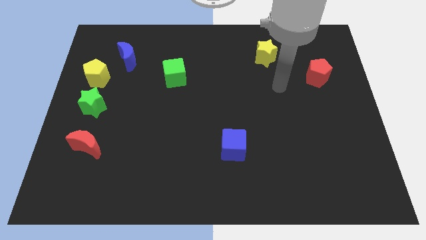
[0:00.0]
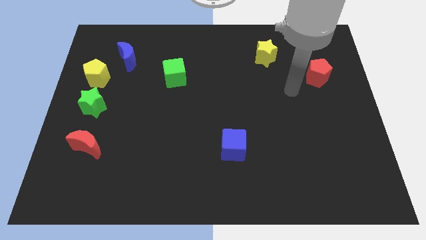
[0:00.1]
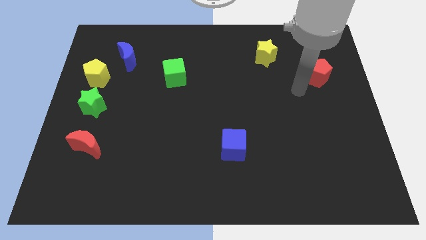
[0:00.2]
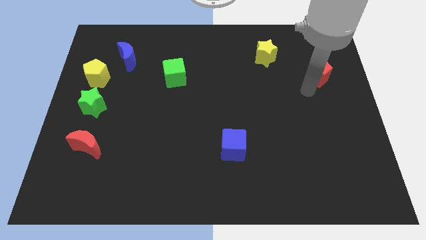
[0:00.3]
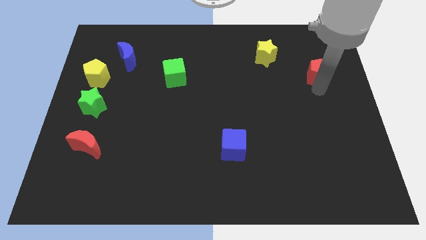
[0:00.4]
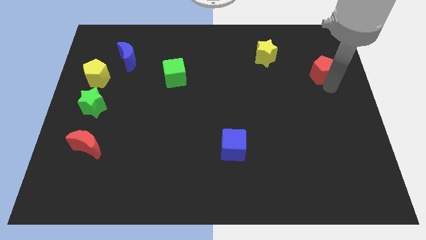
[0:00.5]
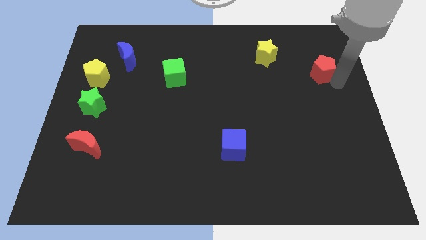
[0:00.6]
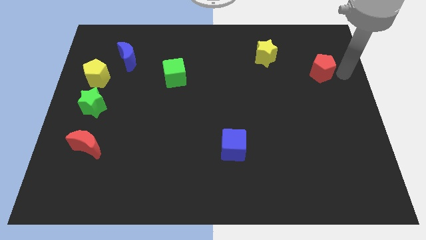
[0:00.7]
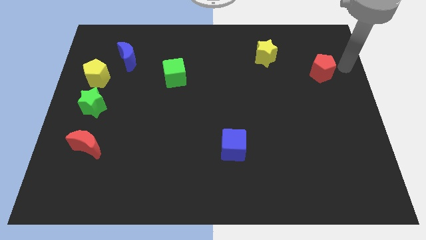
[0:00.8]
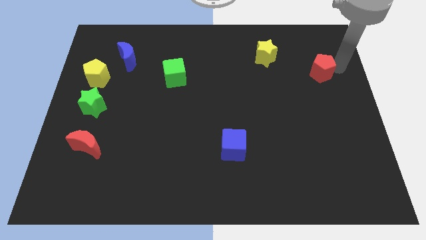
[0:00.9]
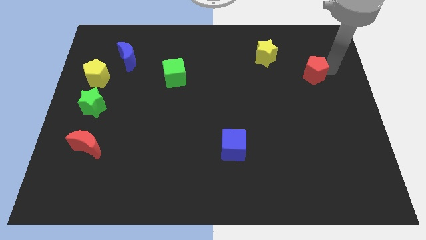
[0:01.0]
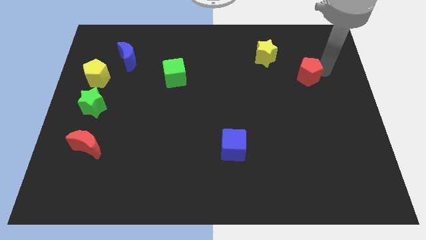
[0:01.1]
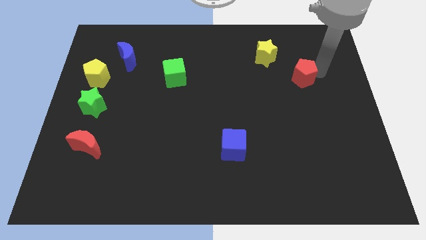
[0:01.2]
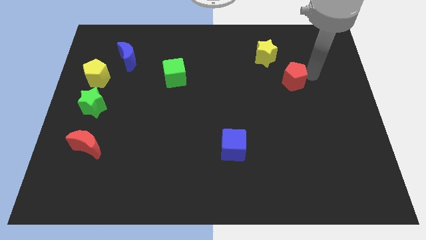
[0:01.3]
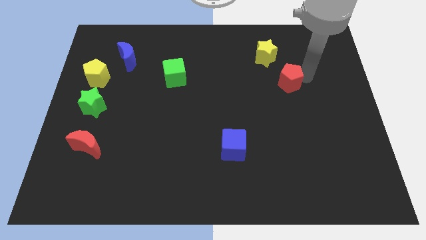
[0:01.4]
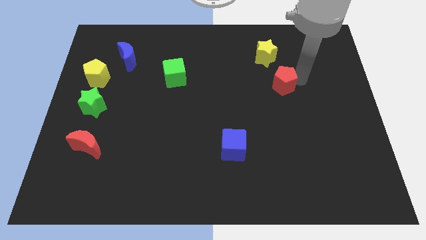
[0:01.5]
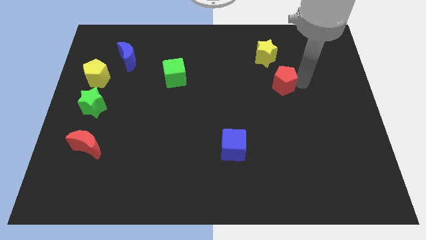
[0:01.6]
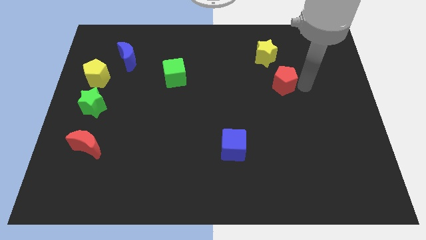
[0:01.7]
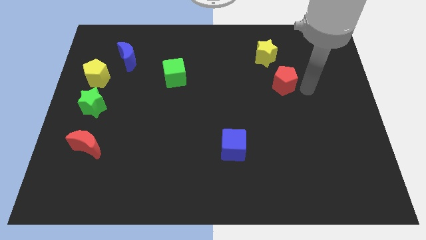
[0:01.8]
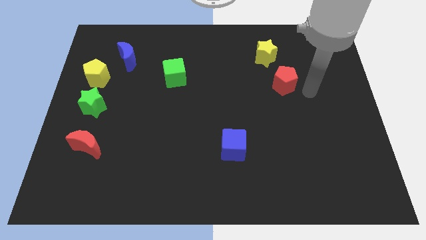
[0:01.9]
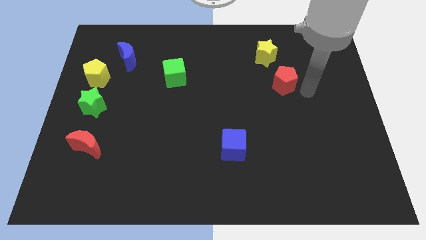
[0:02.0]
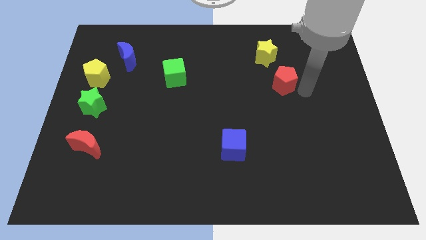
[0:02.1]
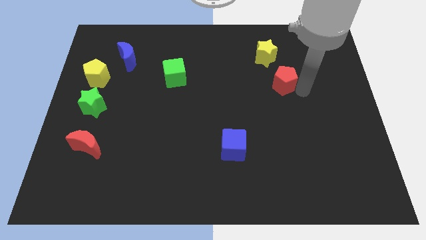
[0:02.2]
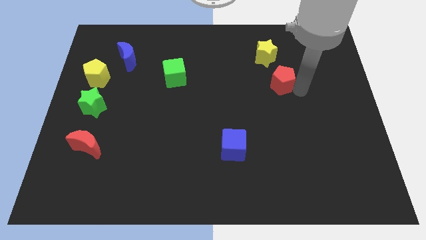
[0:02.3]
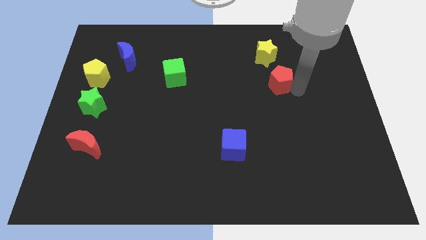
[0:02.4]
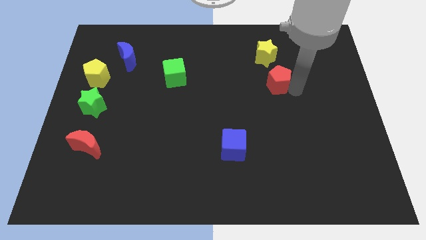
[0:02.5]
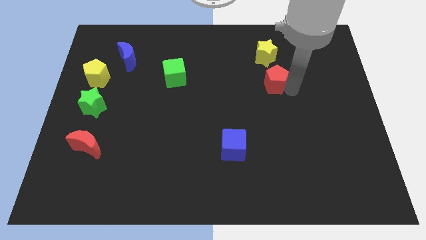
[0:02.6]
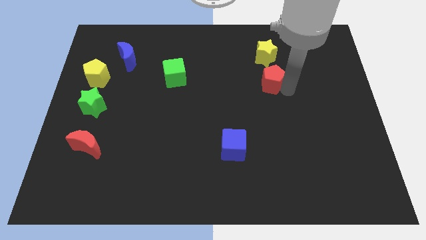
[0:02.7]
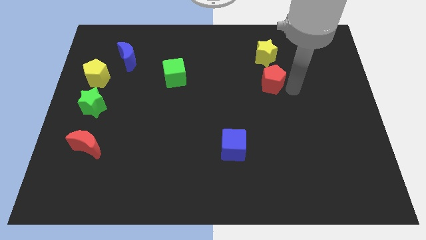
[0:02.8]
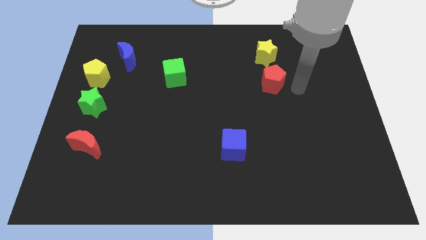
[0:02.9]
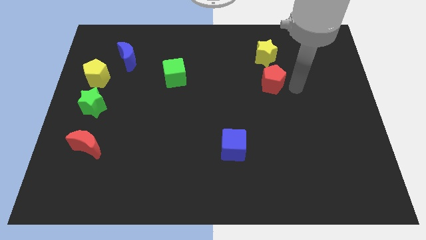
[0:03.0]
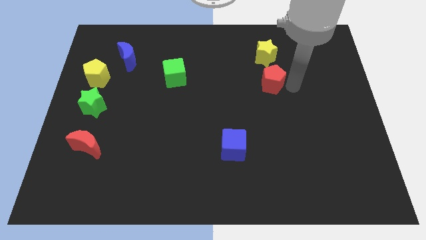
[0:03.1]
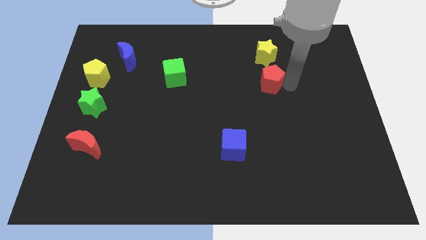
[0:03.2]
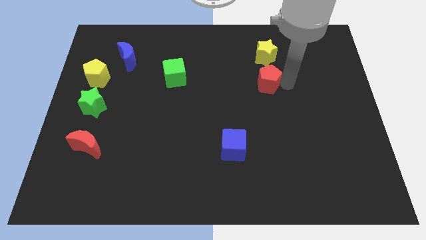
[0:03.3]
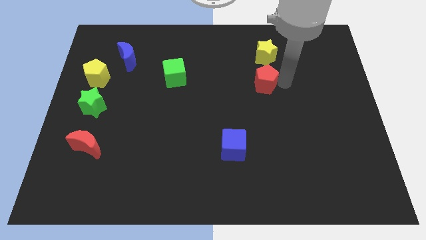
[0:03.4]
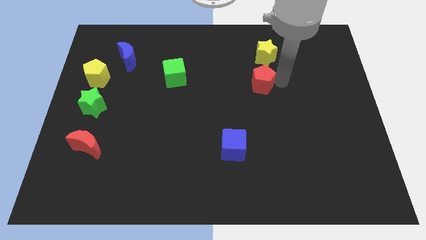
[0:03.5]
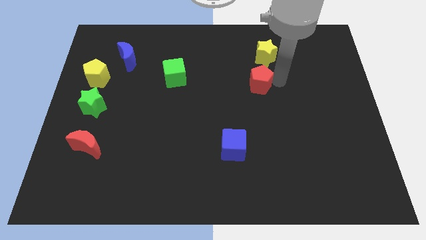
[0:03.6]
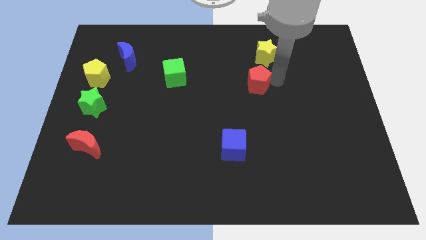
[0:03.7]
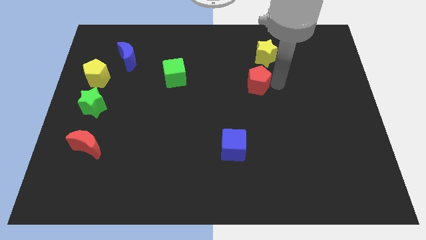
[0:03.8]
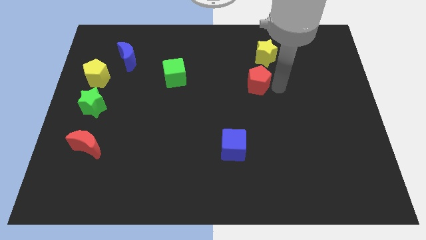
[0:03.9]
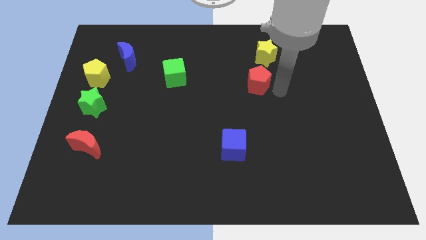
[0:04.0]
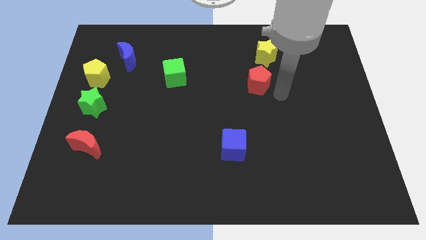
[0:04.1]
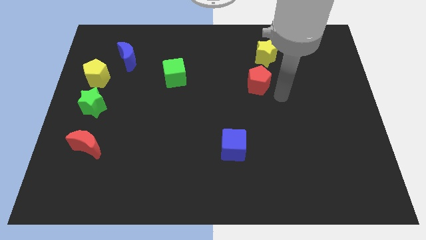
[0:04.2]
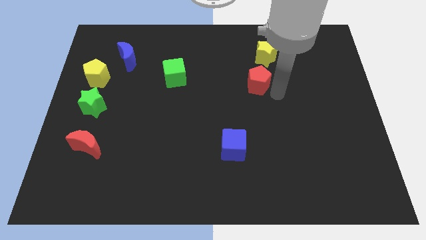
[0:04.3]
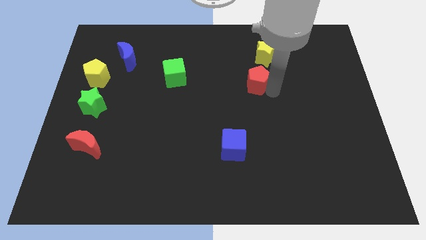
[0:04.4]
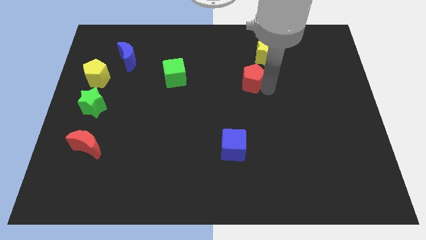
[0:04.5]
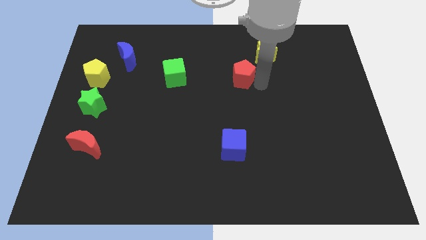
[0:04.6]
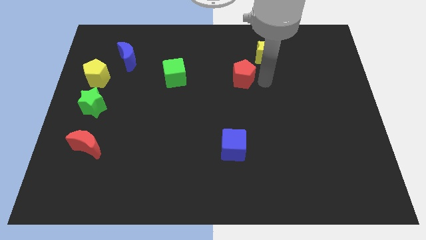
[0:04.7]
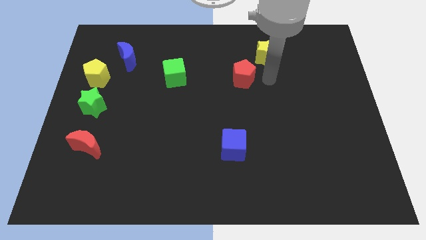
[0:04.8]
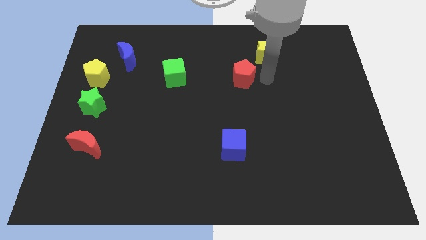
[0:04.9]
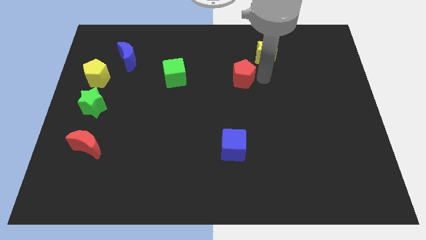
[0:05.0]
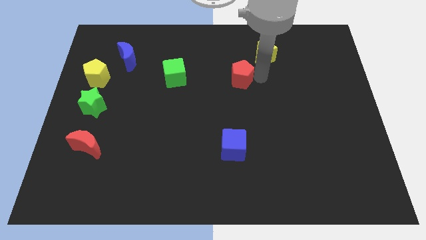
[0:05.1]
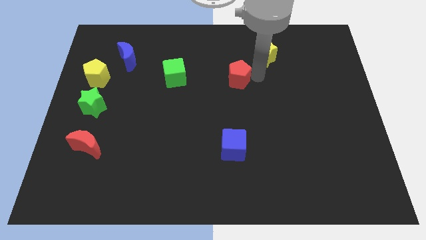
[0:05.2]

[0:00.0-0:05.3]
move the red pentagon right of the green cube

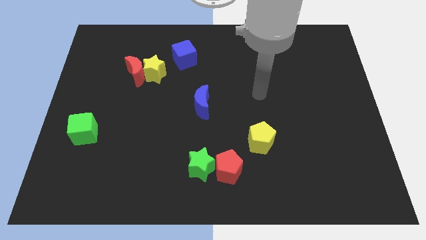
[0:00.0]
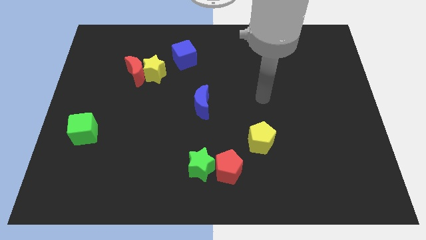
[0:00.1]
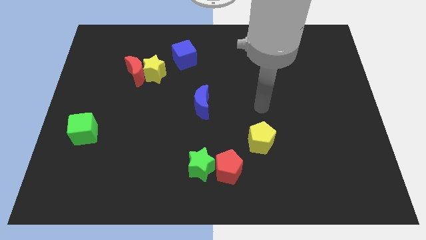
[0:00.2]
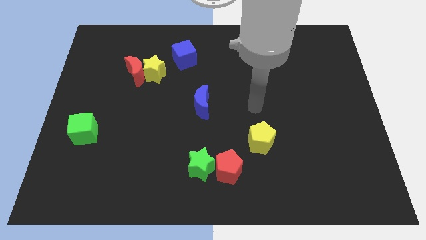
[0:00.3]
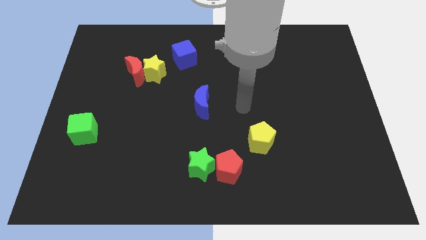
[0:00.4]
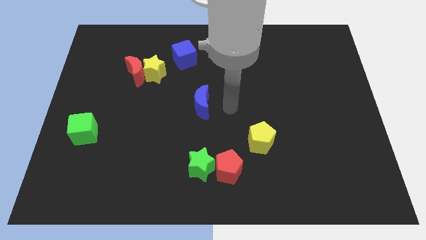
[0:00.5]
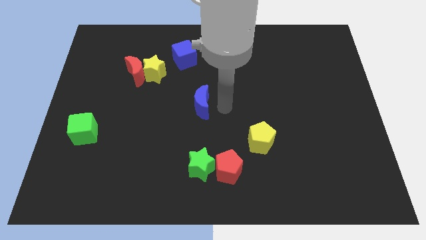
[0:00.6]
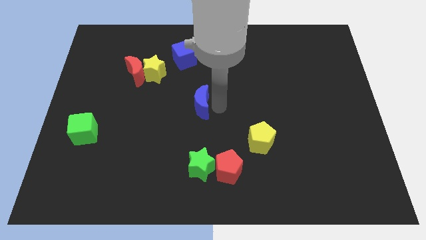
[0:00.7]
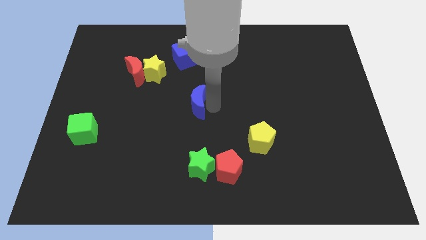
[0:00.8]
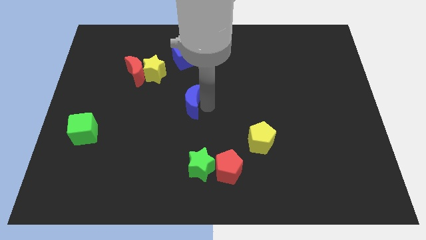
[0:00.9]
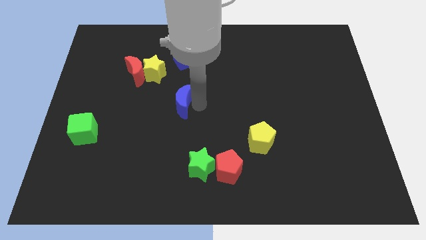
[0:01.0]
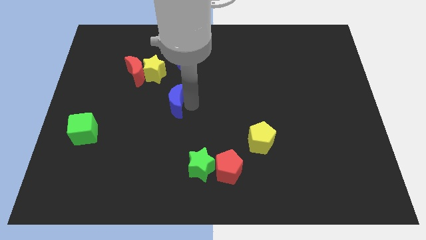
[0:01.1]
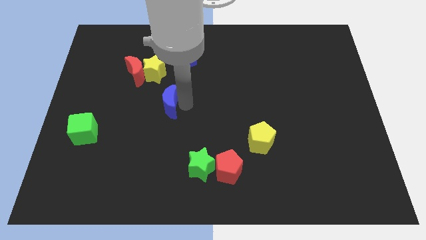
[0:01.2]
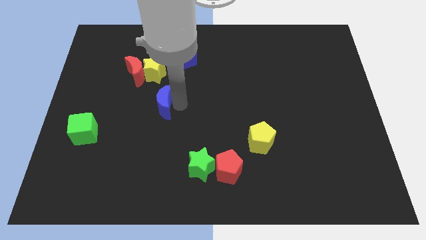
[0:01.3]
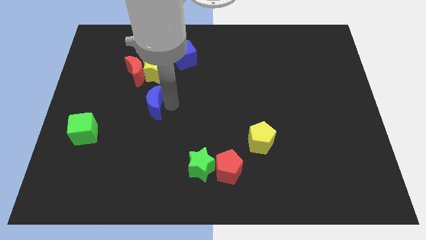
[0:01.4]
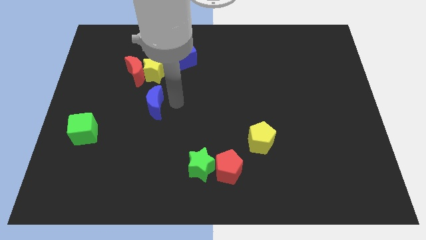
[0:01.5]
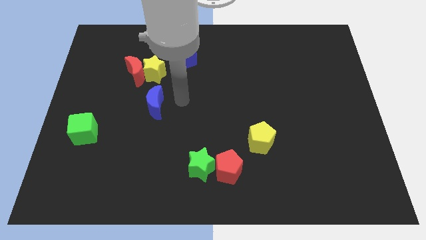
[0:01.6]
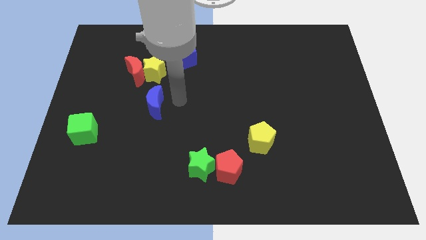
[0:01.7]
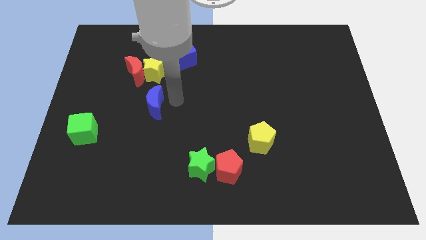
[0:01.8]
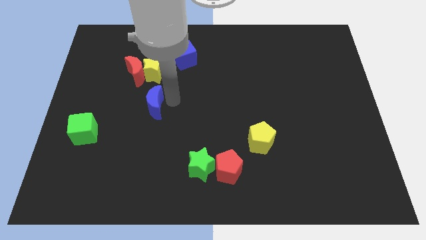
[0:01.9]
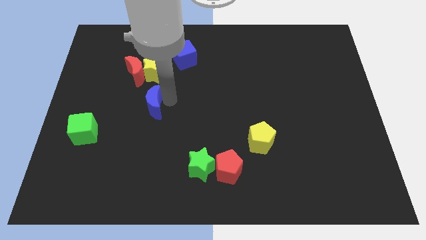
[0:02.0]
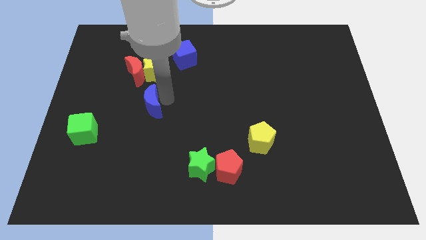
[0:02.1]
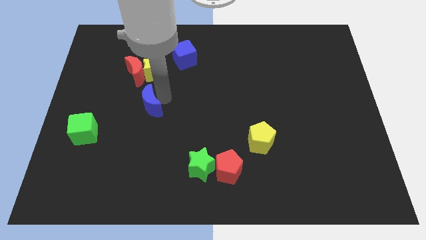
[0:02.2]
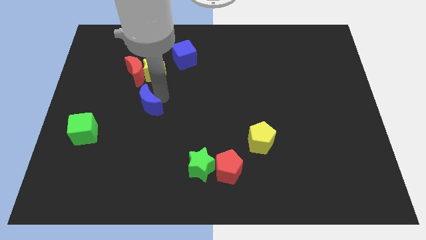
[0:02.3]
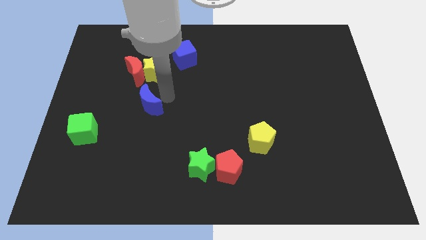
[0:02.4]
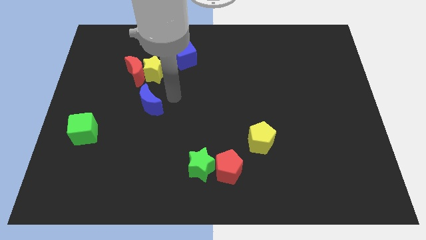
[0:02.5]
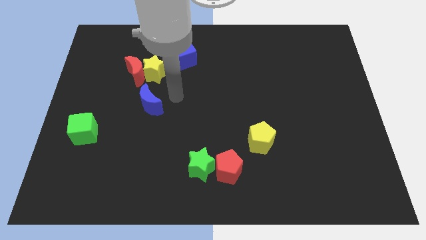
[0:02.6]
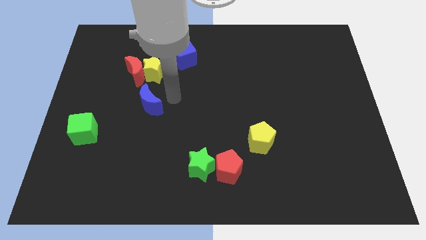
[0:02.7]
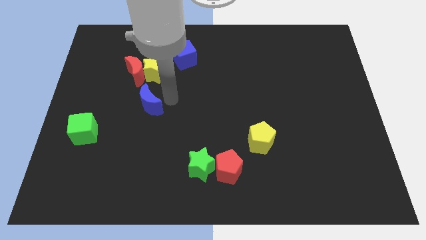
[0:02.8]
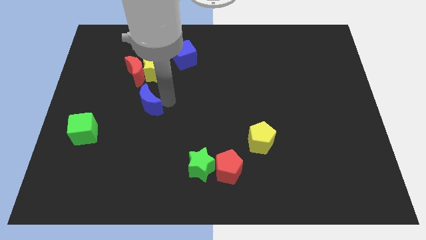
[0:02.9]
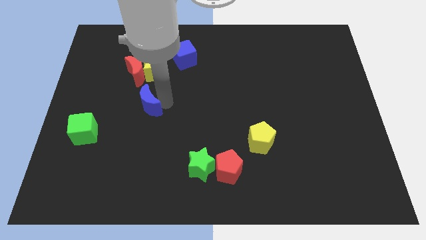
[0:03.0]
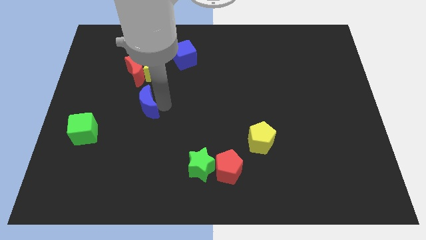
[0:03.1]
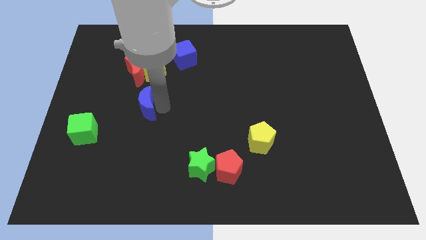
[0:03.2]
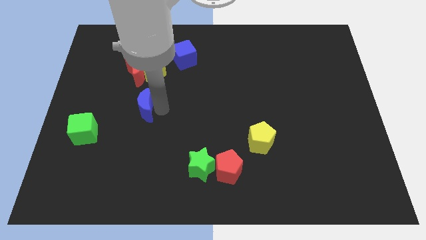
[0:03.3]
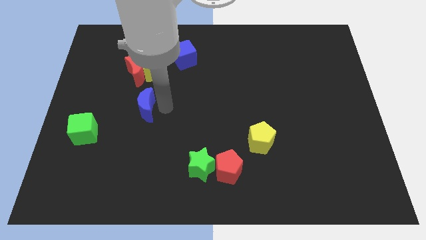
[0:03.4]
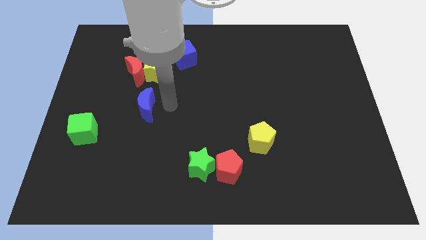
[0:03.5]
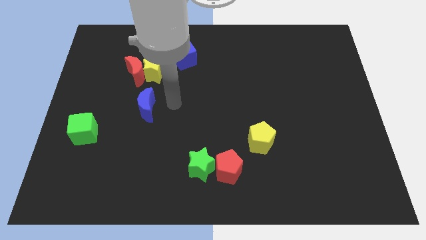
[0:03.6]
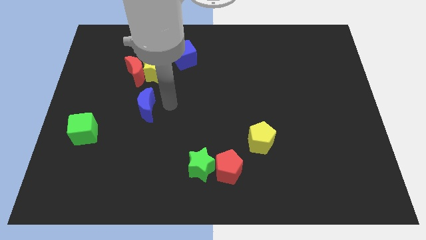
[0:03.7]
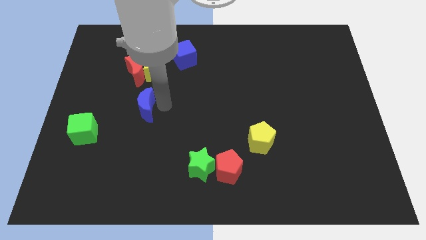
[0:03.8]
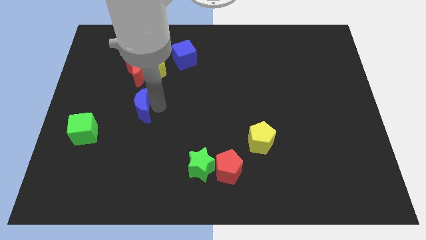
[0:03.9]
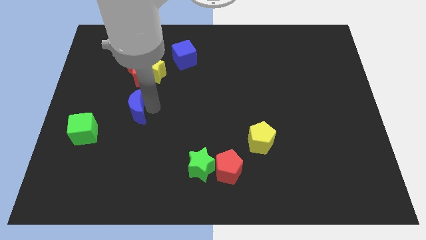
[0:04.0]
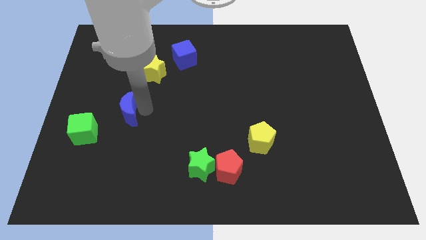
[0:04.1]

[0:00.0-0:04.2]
push the blue moon to the top right of the green cube
